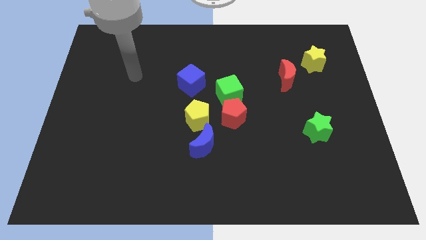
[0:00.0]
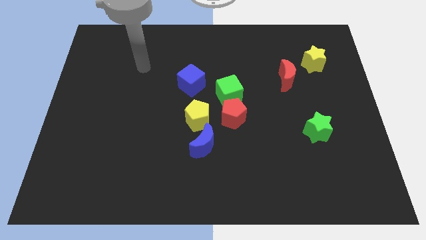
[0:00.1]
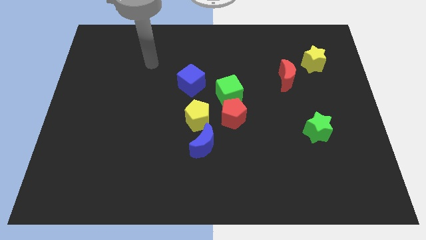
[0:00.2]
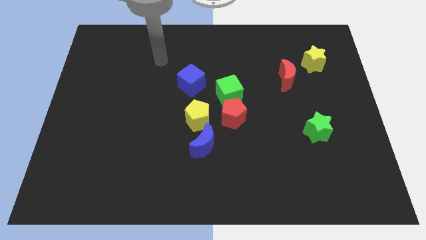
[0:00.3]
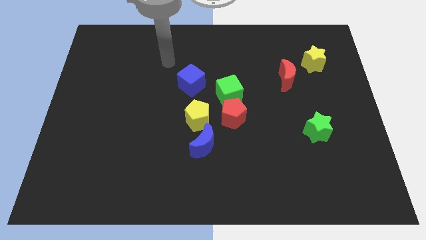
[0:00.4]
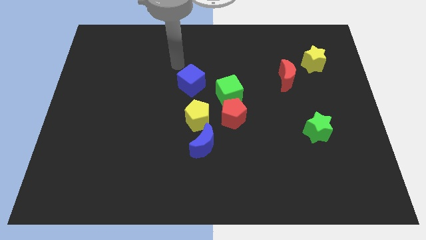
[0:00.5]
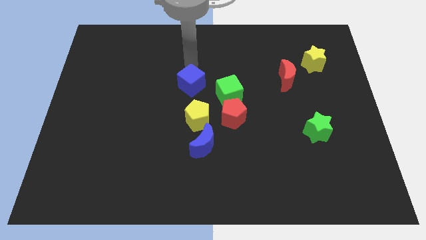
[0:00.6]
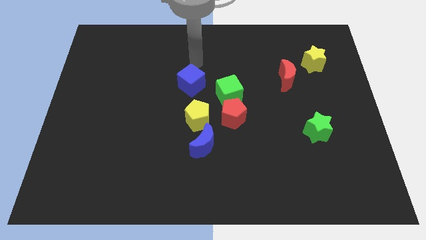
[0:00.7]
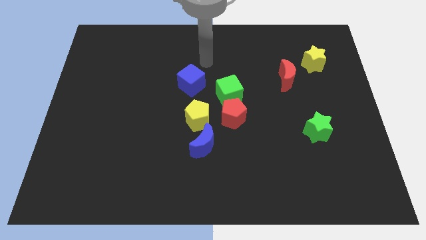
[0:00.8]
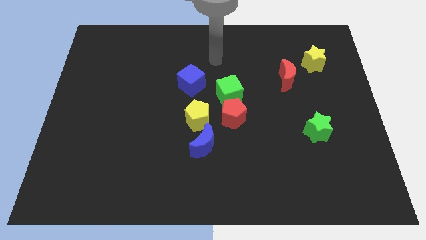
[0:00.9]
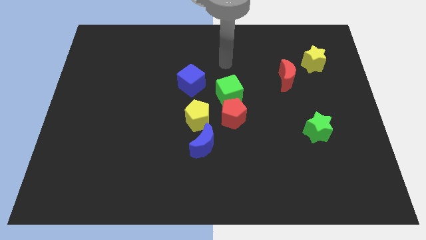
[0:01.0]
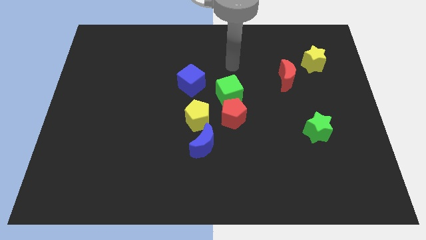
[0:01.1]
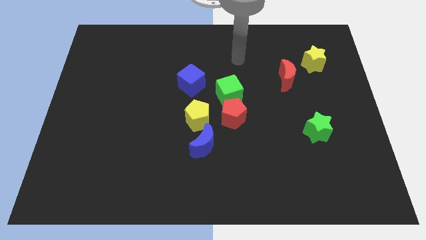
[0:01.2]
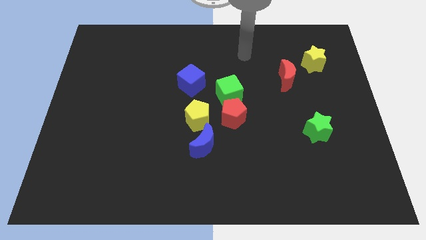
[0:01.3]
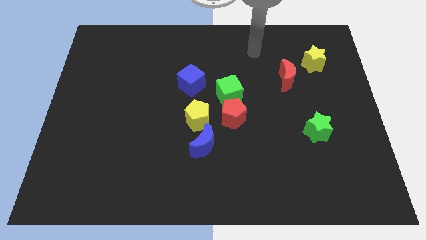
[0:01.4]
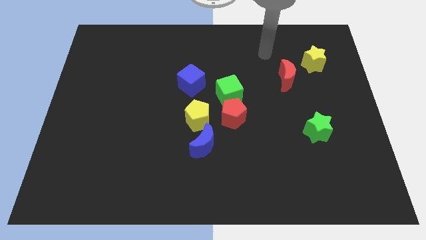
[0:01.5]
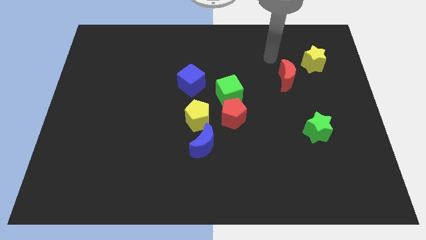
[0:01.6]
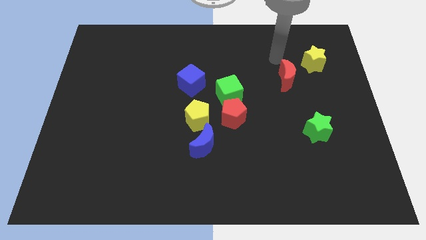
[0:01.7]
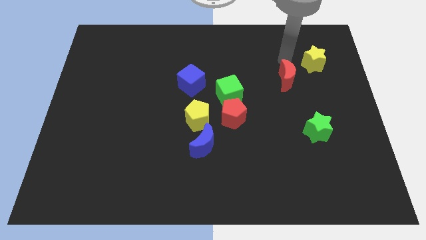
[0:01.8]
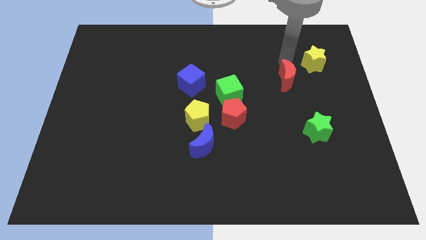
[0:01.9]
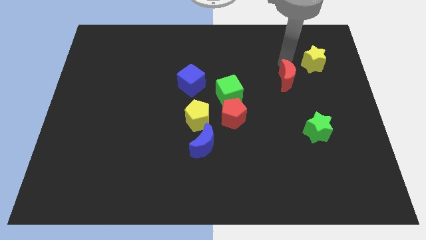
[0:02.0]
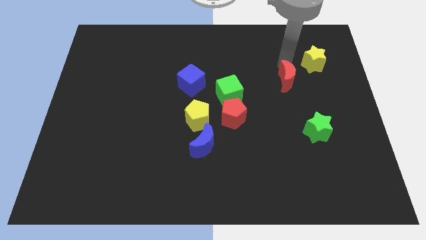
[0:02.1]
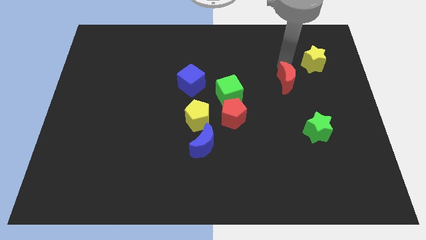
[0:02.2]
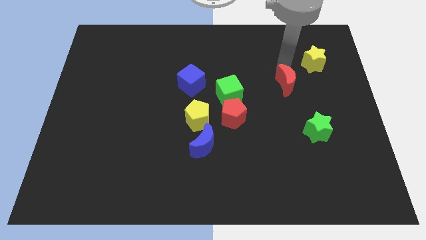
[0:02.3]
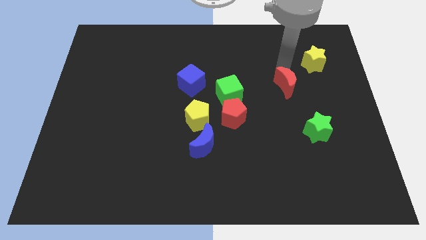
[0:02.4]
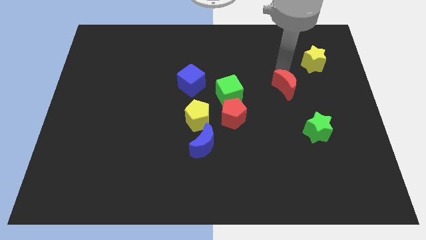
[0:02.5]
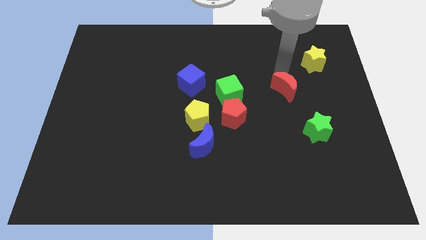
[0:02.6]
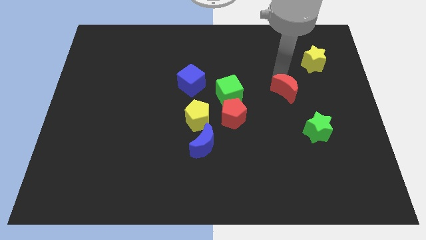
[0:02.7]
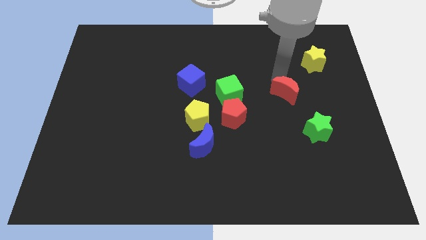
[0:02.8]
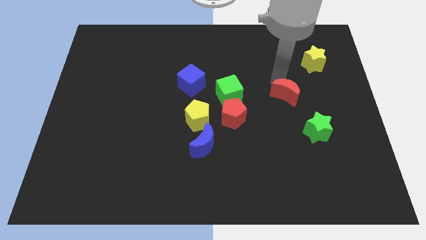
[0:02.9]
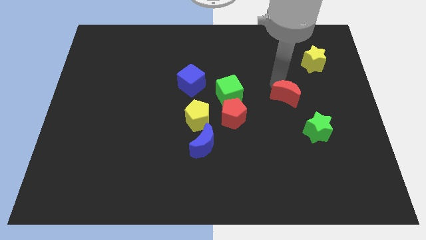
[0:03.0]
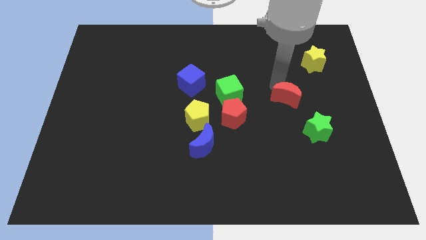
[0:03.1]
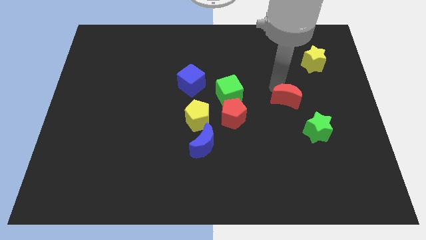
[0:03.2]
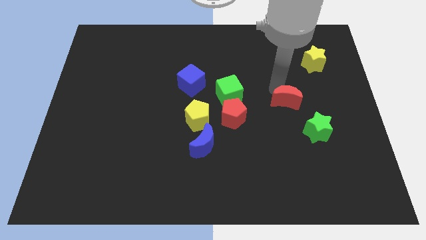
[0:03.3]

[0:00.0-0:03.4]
push the red moon downwards a little

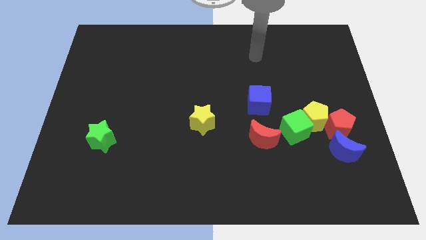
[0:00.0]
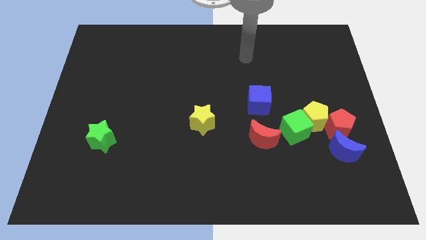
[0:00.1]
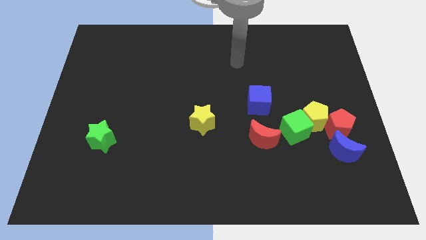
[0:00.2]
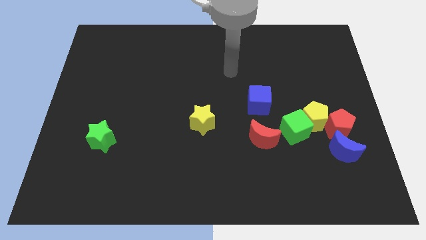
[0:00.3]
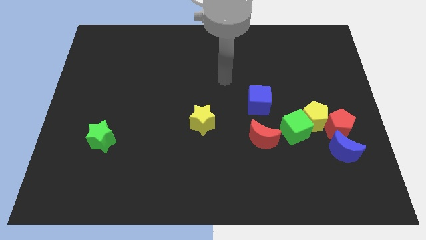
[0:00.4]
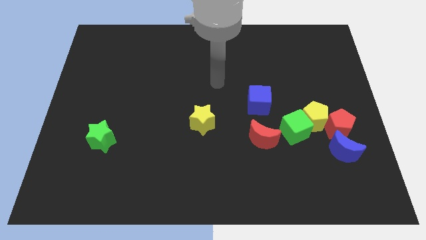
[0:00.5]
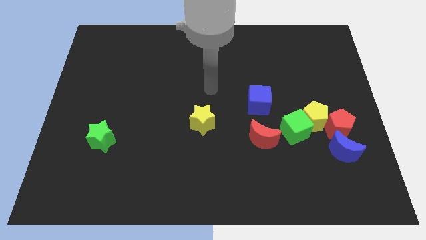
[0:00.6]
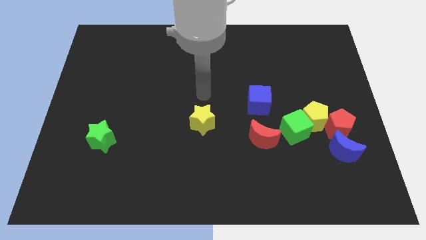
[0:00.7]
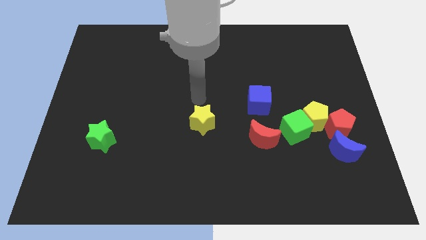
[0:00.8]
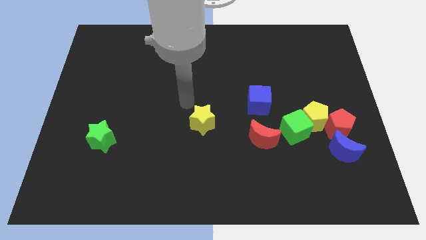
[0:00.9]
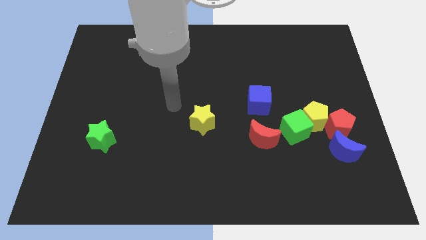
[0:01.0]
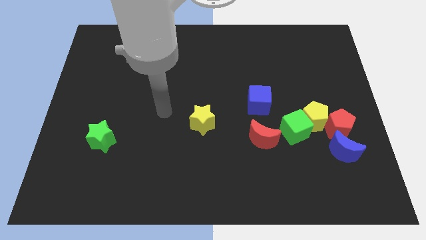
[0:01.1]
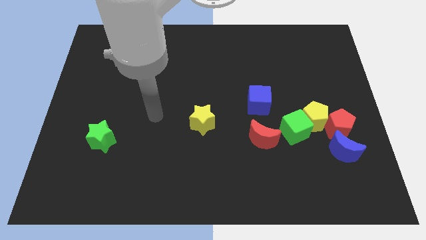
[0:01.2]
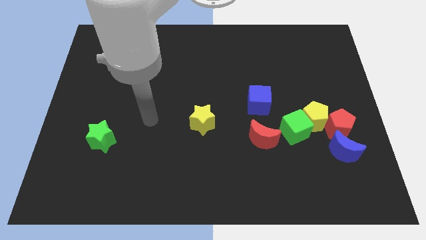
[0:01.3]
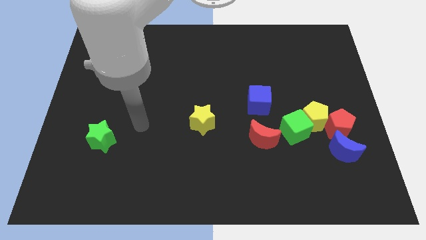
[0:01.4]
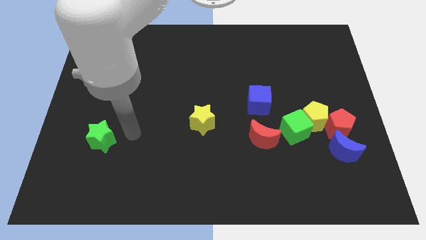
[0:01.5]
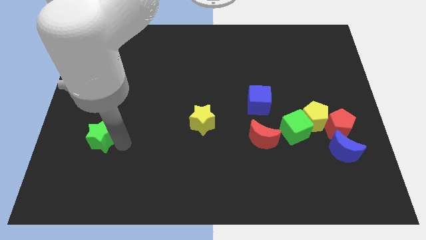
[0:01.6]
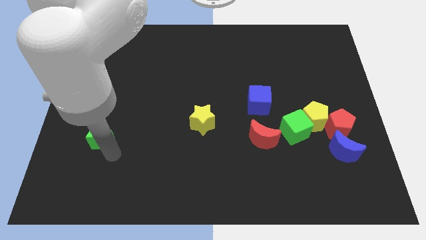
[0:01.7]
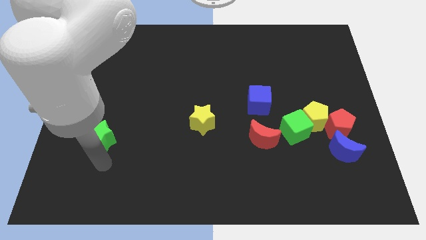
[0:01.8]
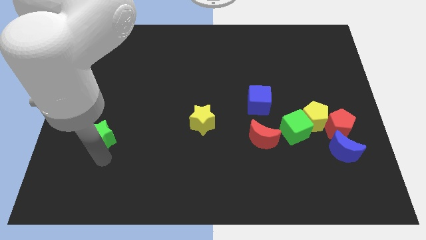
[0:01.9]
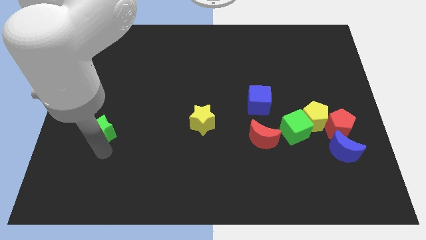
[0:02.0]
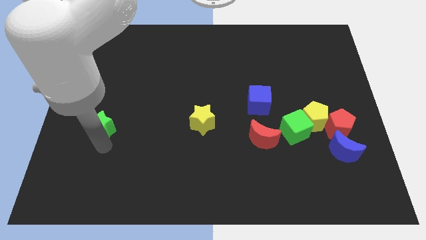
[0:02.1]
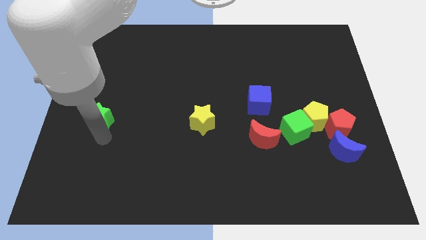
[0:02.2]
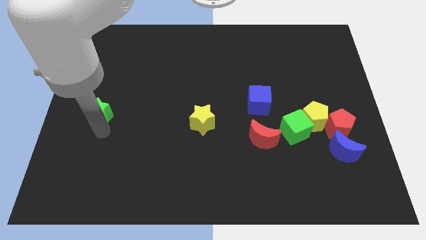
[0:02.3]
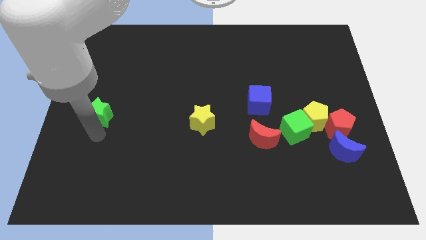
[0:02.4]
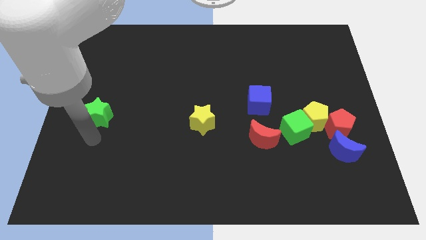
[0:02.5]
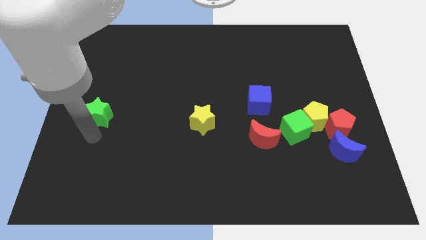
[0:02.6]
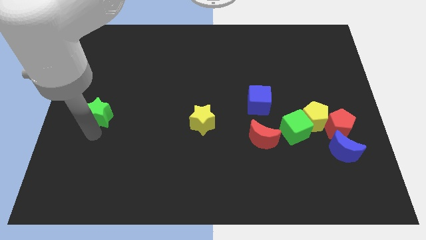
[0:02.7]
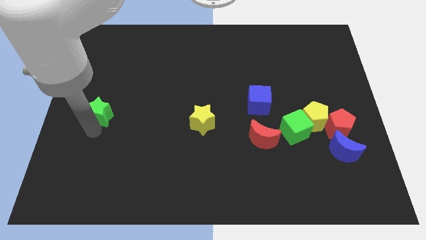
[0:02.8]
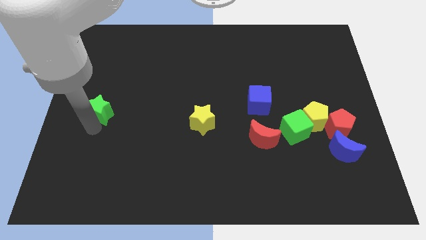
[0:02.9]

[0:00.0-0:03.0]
slightly move the green star up

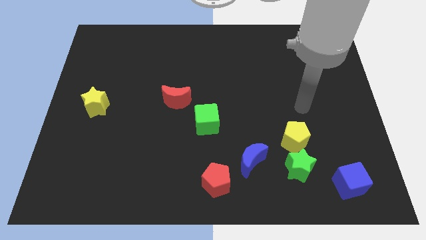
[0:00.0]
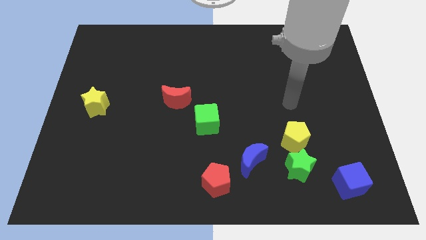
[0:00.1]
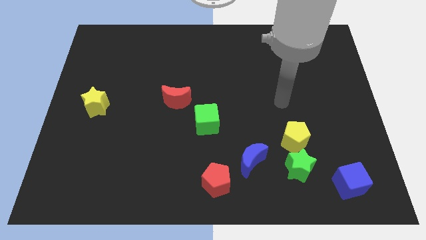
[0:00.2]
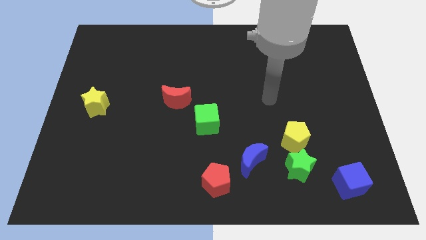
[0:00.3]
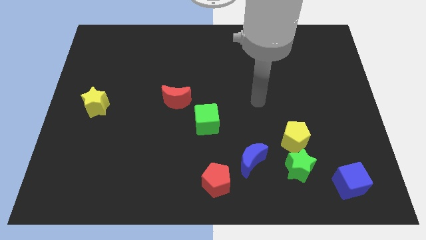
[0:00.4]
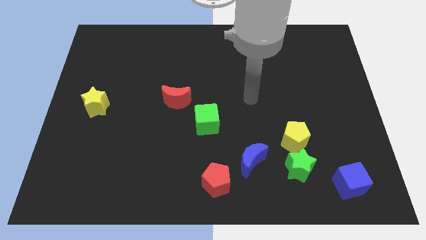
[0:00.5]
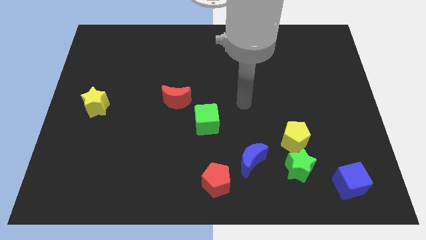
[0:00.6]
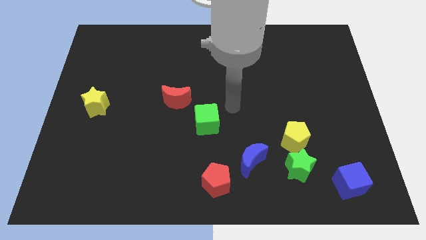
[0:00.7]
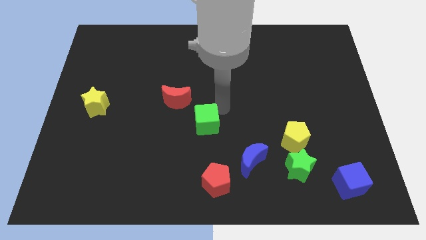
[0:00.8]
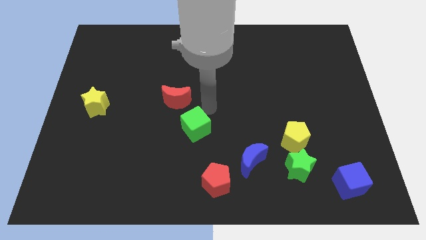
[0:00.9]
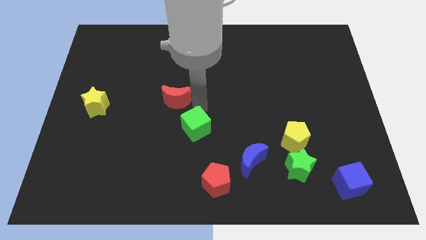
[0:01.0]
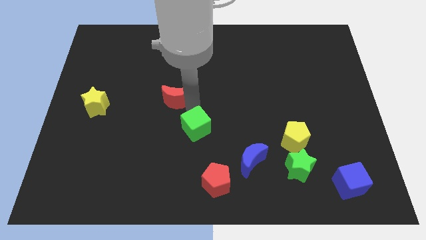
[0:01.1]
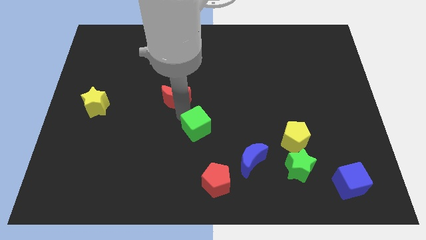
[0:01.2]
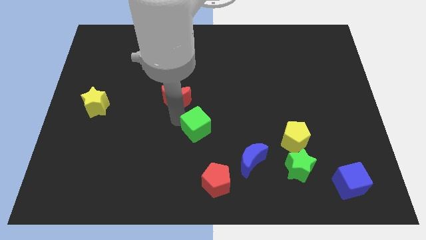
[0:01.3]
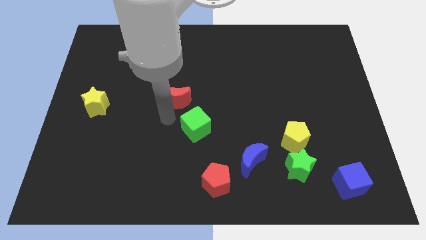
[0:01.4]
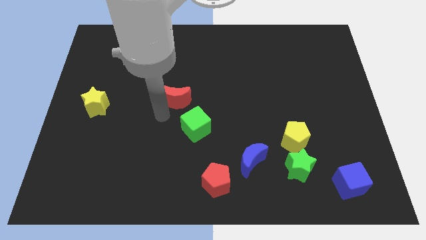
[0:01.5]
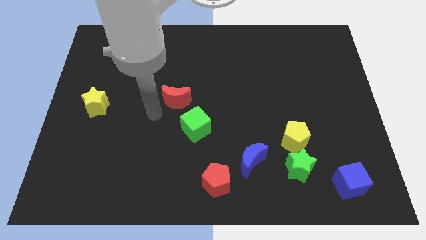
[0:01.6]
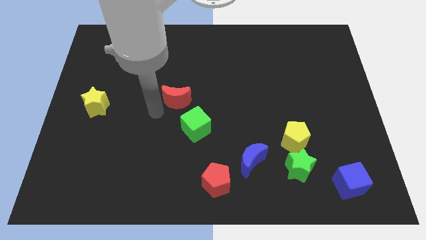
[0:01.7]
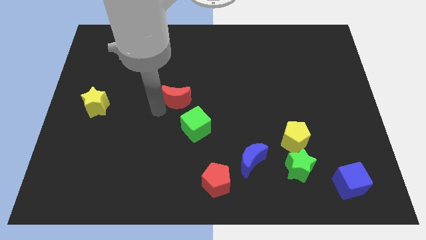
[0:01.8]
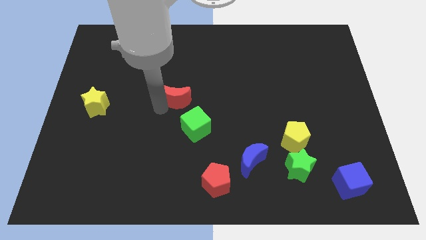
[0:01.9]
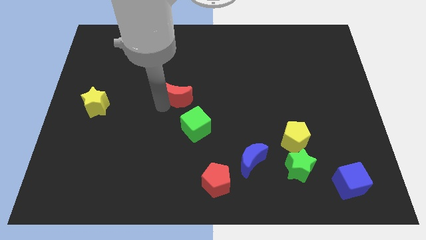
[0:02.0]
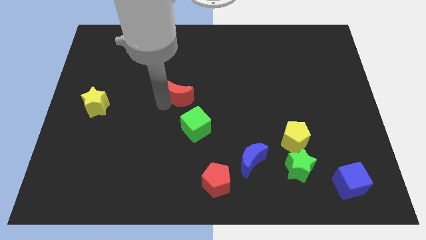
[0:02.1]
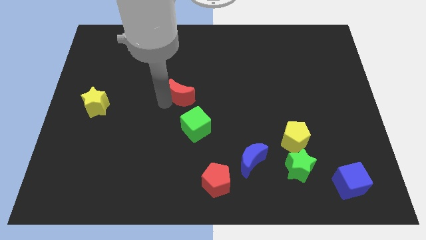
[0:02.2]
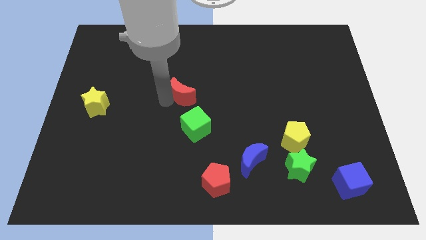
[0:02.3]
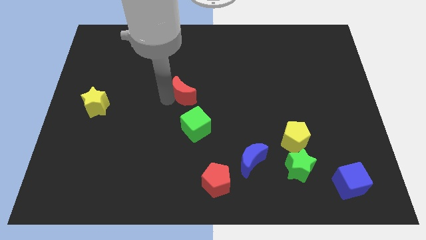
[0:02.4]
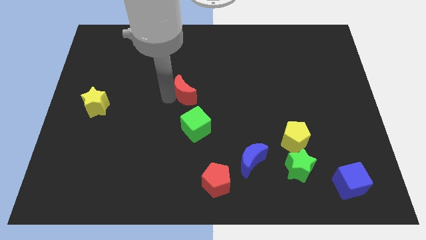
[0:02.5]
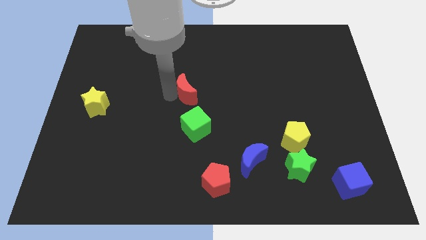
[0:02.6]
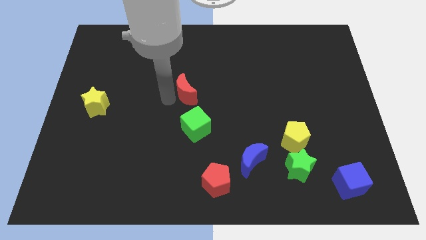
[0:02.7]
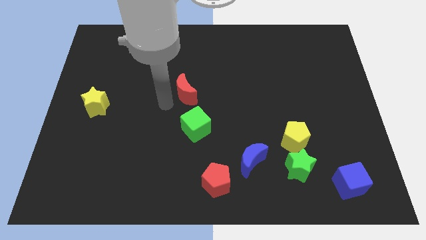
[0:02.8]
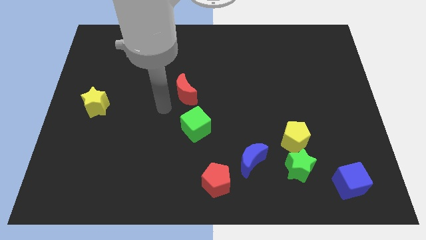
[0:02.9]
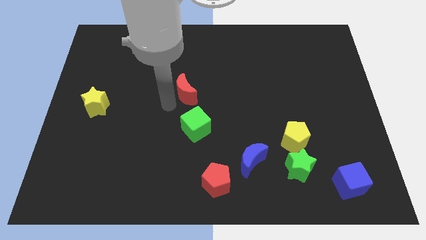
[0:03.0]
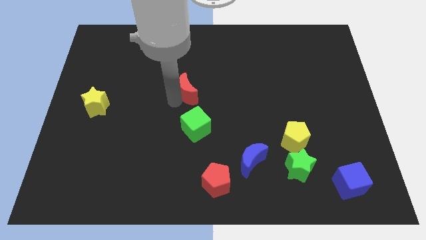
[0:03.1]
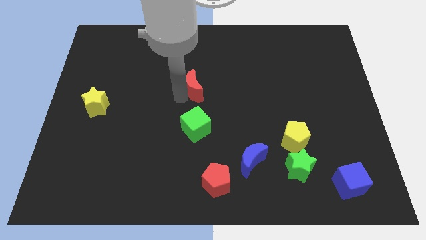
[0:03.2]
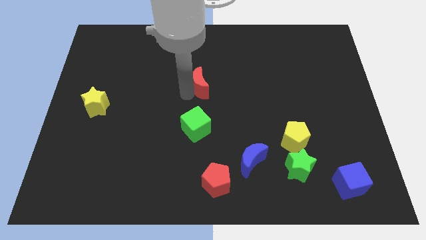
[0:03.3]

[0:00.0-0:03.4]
push the red moon upwards and to the right slightly
